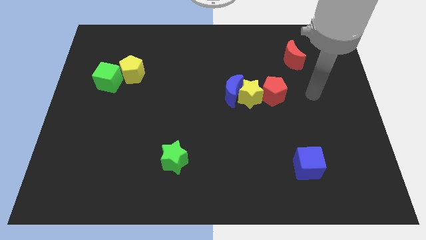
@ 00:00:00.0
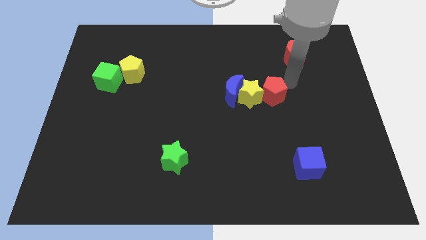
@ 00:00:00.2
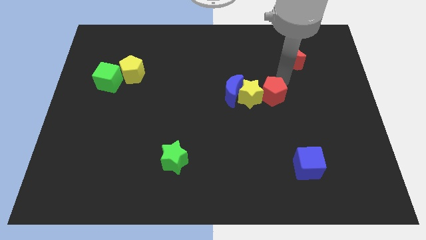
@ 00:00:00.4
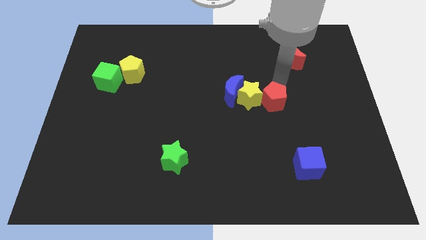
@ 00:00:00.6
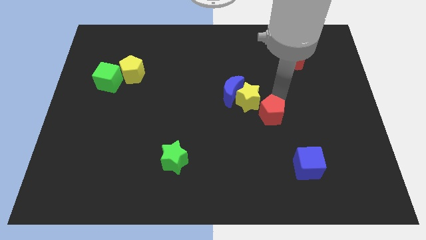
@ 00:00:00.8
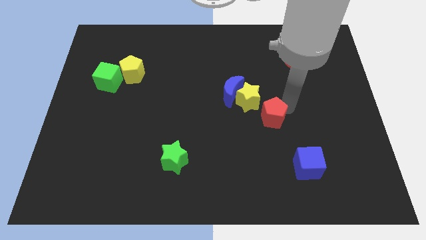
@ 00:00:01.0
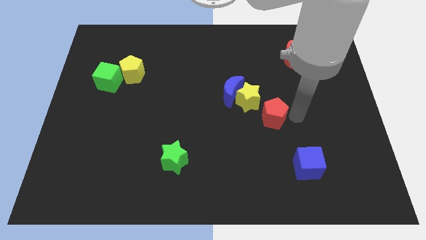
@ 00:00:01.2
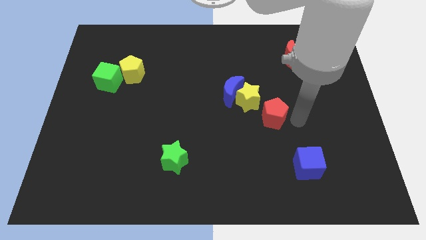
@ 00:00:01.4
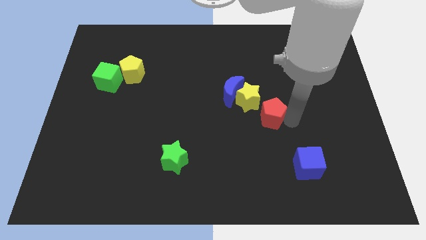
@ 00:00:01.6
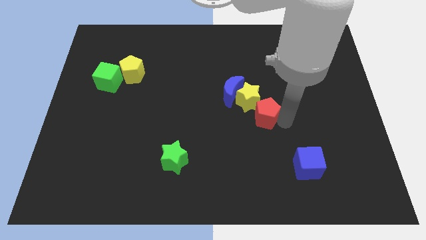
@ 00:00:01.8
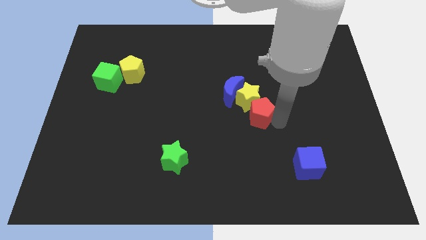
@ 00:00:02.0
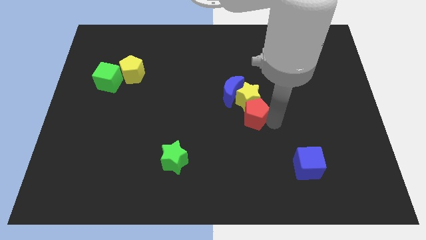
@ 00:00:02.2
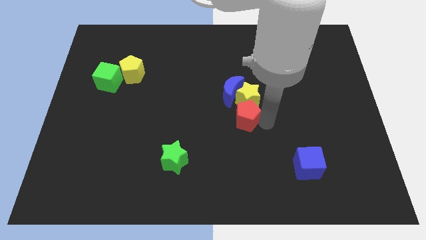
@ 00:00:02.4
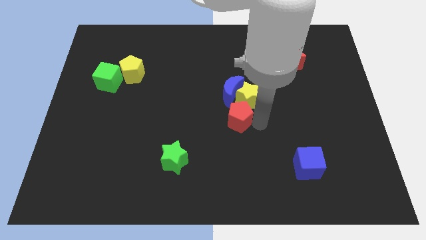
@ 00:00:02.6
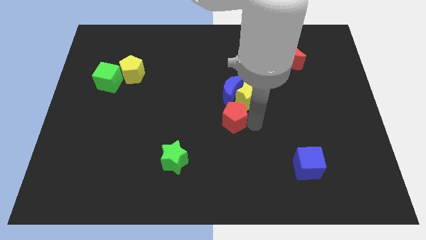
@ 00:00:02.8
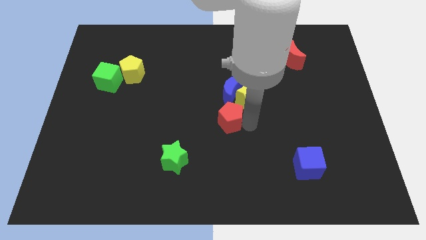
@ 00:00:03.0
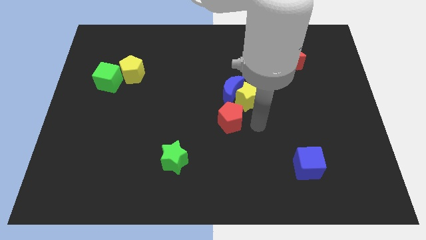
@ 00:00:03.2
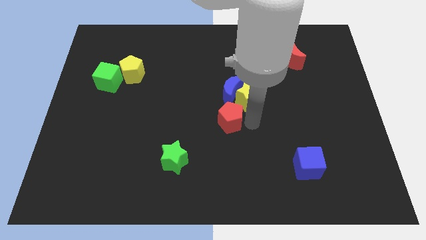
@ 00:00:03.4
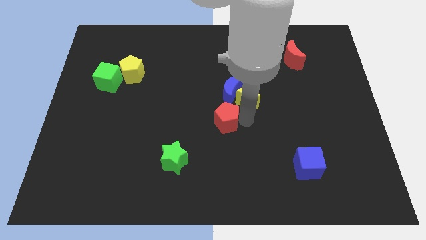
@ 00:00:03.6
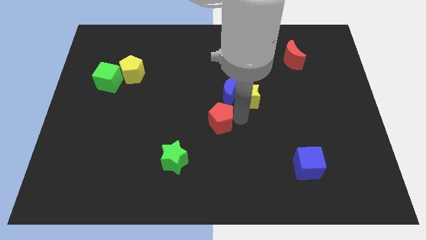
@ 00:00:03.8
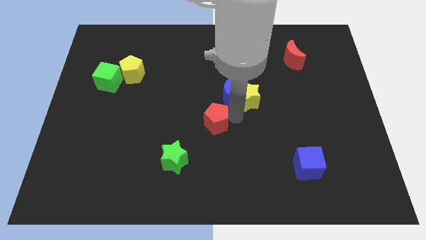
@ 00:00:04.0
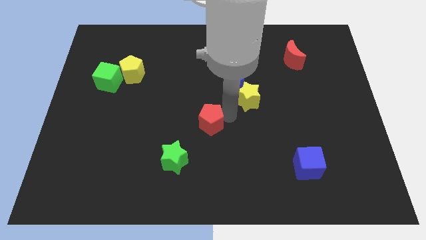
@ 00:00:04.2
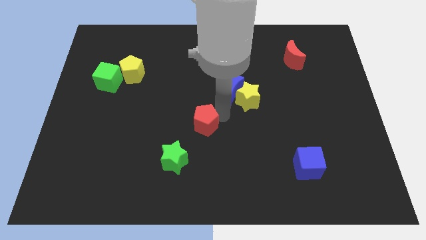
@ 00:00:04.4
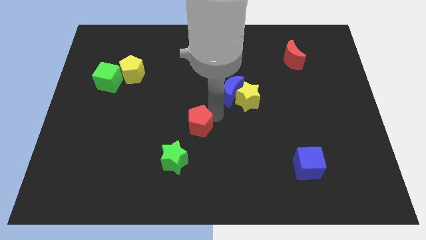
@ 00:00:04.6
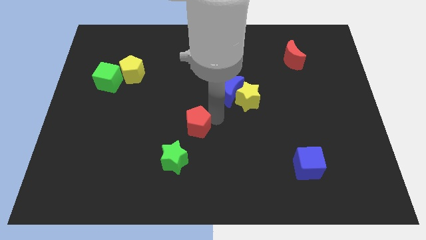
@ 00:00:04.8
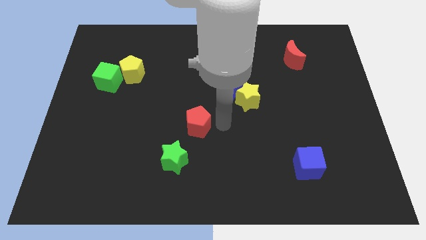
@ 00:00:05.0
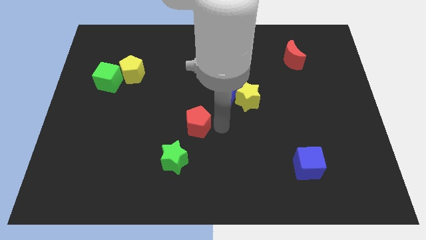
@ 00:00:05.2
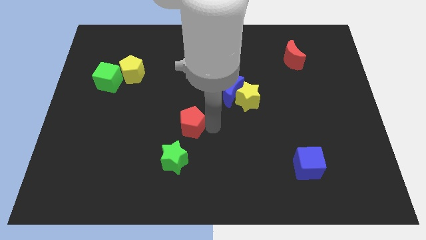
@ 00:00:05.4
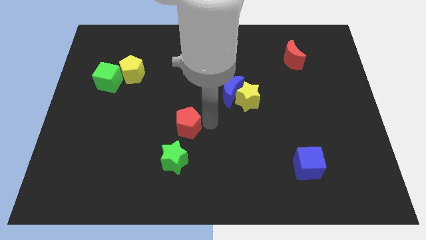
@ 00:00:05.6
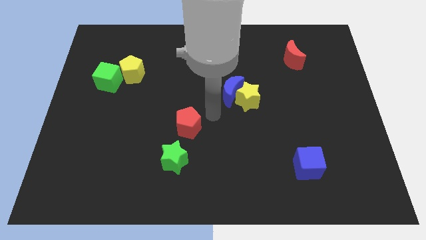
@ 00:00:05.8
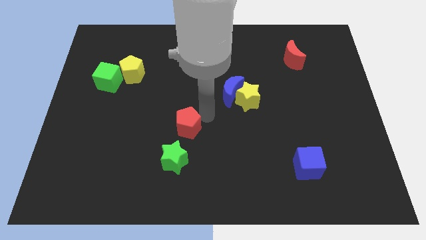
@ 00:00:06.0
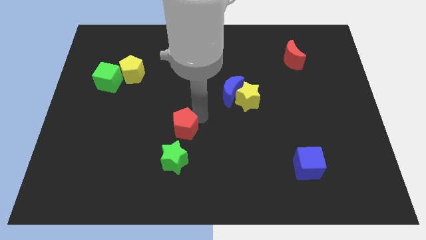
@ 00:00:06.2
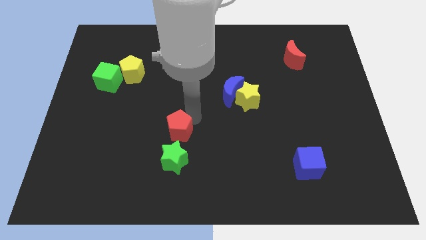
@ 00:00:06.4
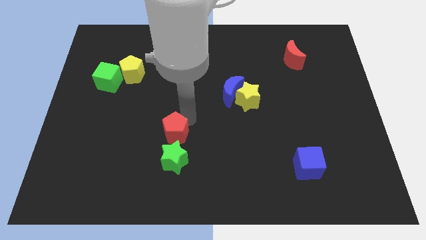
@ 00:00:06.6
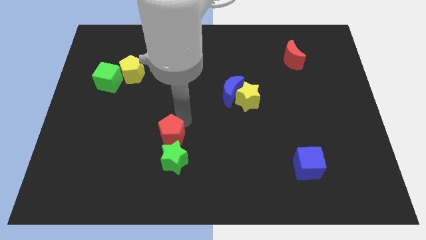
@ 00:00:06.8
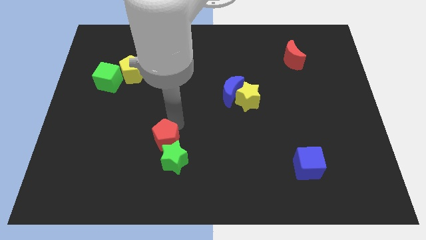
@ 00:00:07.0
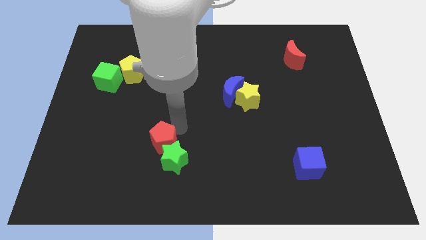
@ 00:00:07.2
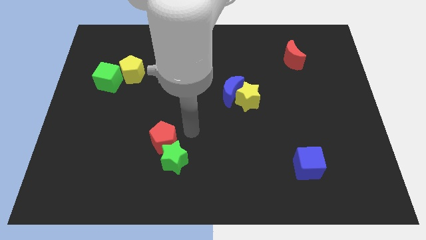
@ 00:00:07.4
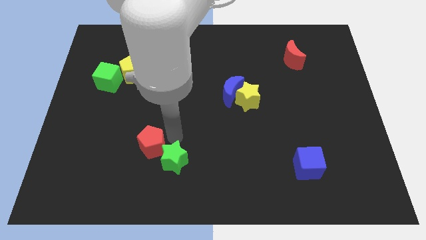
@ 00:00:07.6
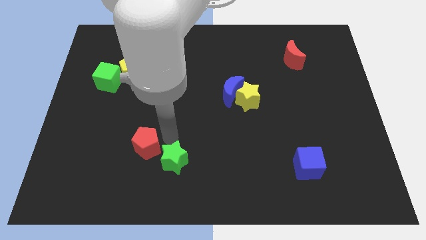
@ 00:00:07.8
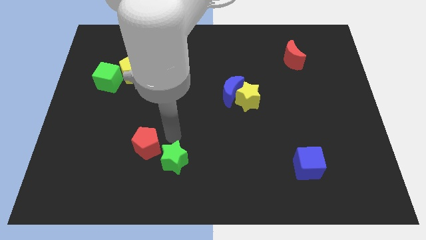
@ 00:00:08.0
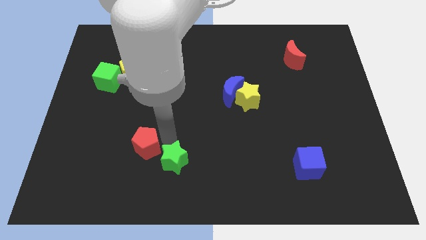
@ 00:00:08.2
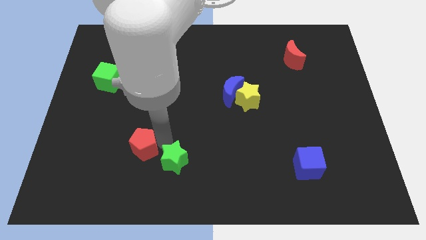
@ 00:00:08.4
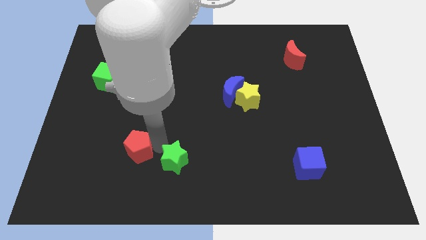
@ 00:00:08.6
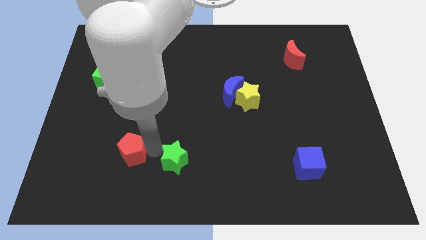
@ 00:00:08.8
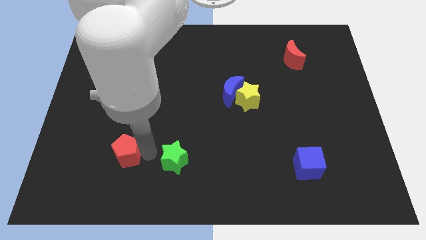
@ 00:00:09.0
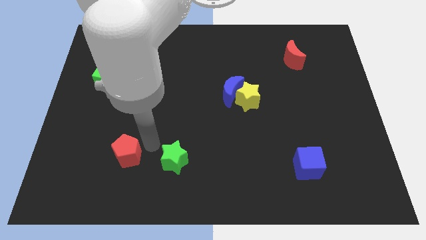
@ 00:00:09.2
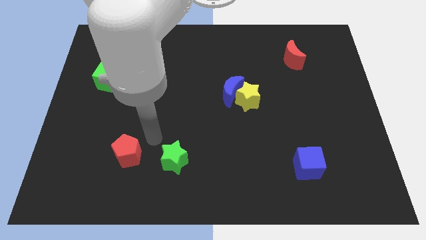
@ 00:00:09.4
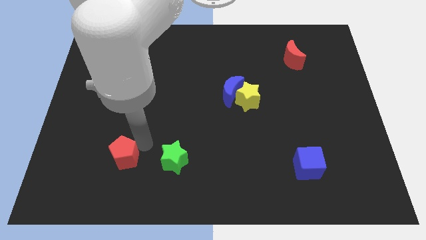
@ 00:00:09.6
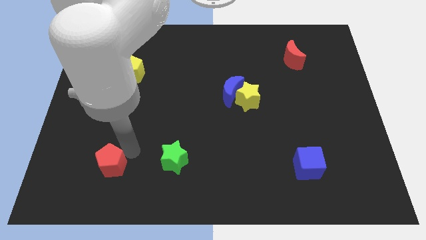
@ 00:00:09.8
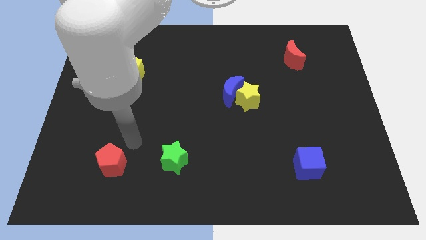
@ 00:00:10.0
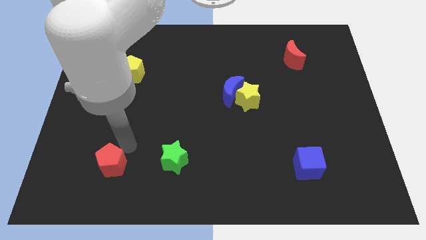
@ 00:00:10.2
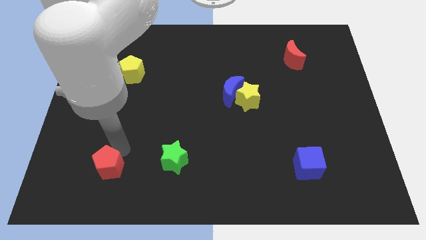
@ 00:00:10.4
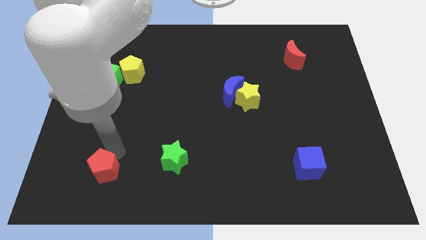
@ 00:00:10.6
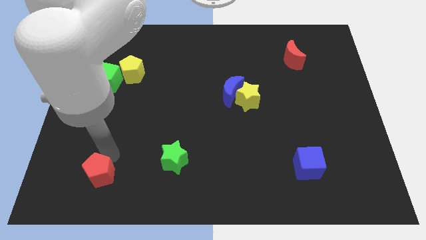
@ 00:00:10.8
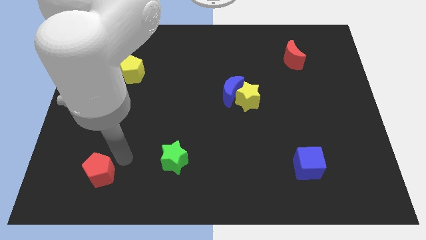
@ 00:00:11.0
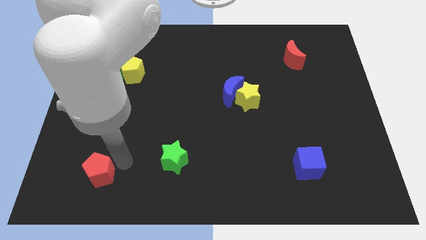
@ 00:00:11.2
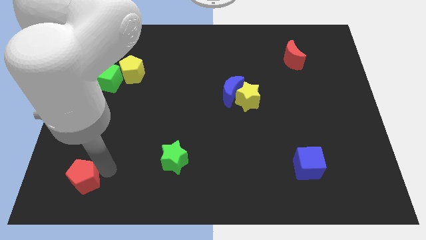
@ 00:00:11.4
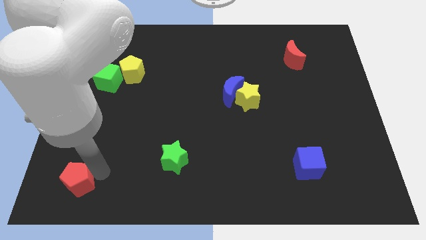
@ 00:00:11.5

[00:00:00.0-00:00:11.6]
slide the red pentagon to the bottom left
